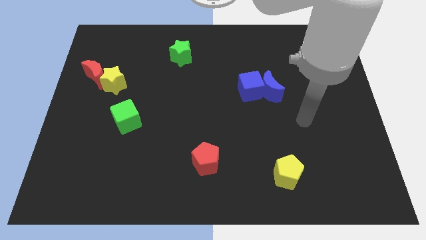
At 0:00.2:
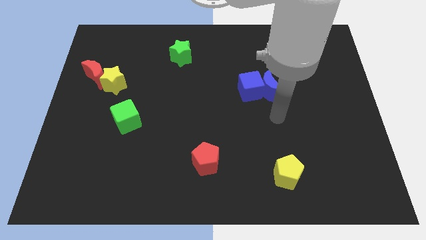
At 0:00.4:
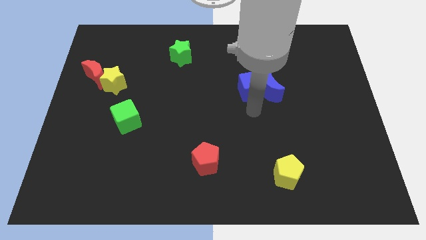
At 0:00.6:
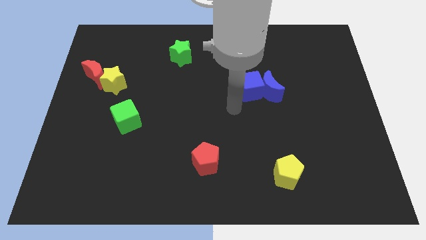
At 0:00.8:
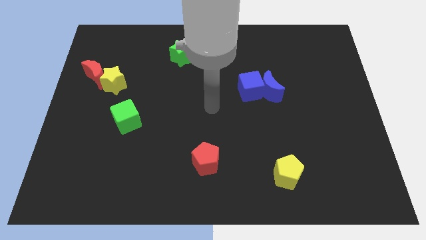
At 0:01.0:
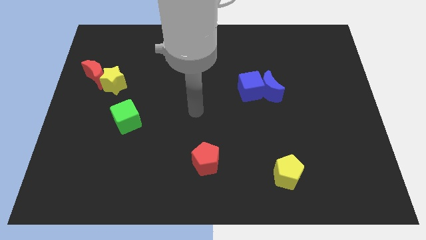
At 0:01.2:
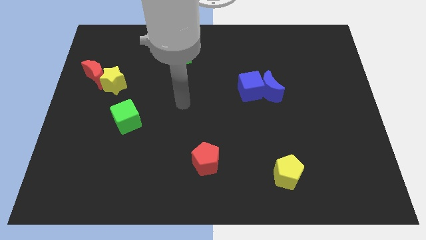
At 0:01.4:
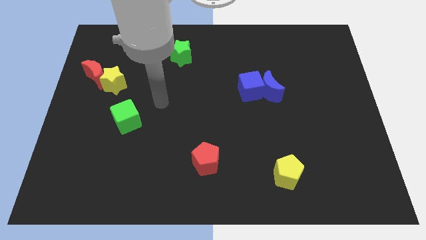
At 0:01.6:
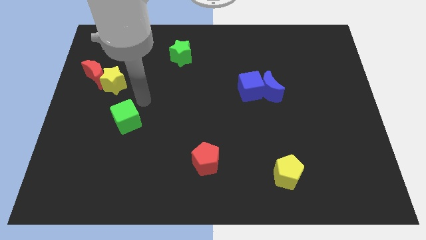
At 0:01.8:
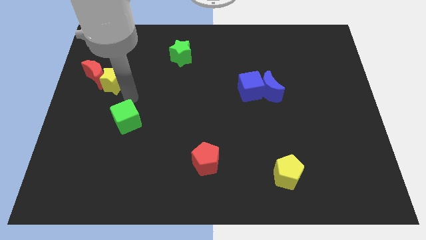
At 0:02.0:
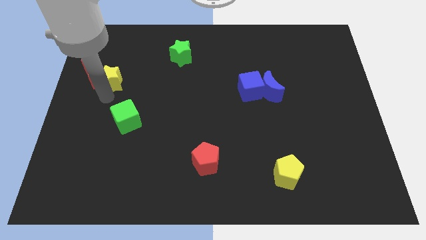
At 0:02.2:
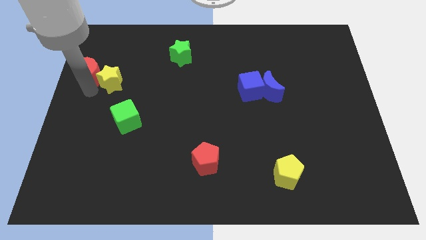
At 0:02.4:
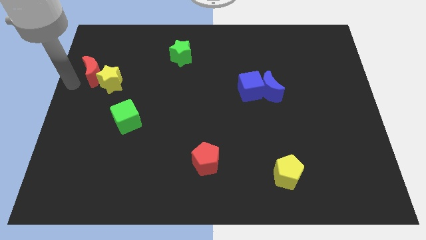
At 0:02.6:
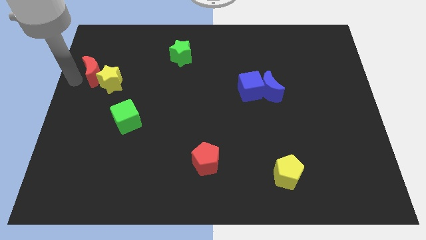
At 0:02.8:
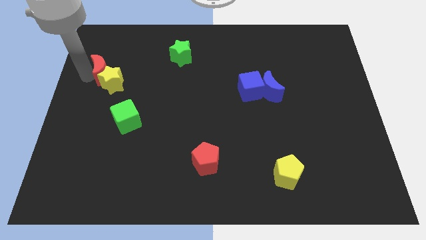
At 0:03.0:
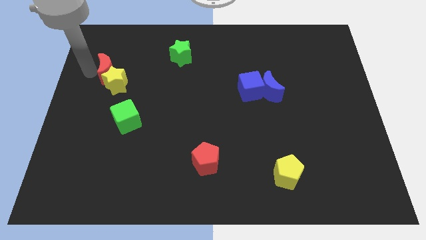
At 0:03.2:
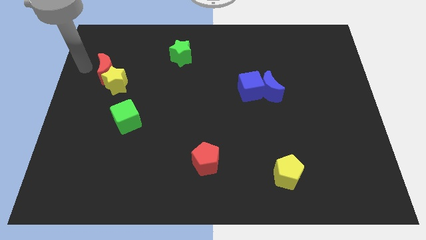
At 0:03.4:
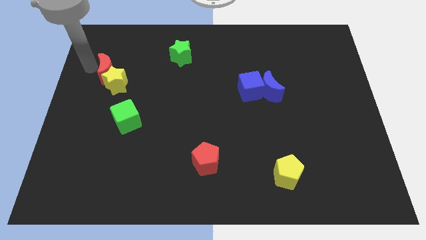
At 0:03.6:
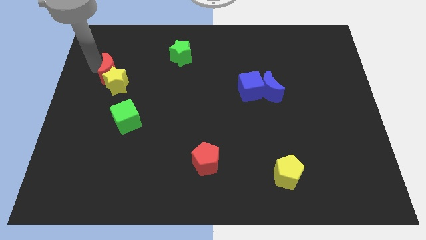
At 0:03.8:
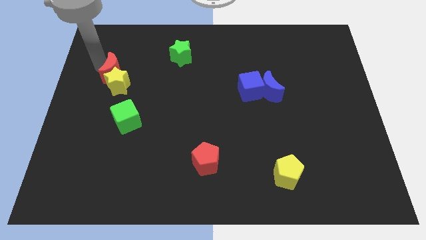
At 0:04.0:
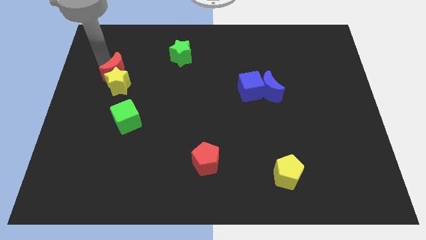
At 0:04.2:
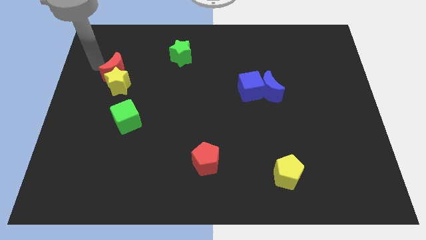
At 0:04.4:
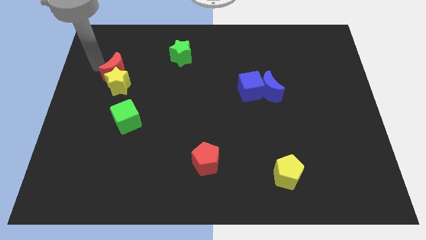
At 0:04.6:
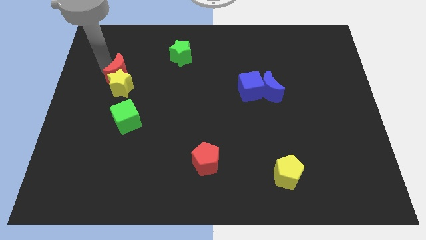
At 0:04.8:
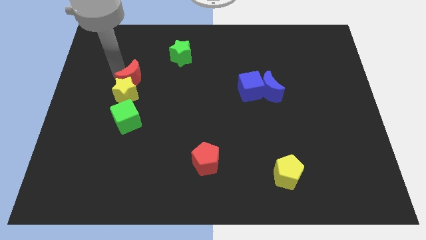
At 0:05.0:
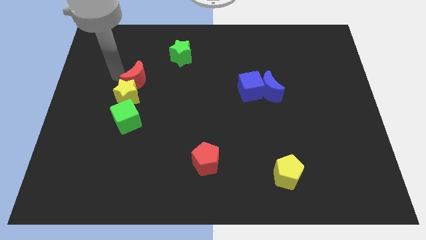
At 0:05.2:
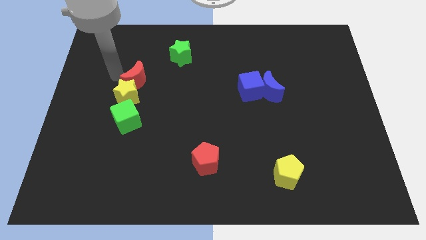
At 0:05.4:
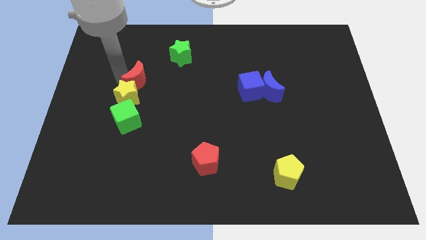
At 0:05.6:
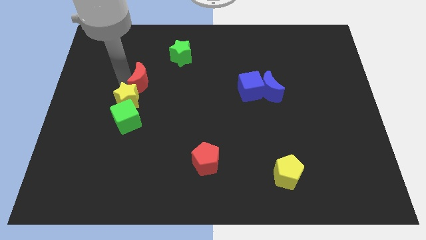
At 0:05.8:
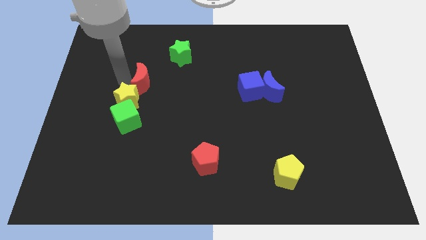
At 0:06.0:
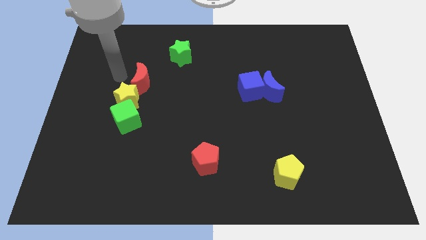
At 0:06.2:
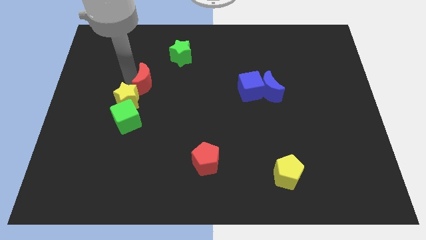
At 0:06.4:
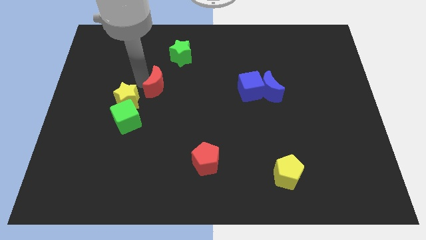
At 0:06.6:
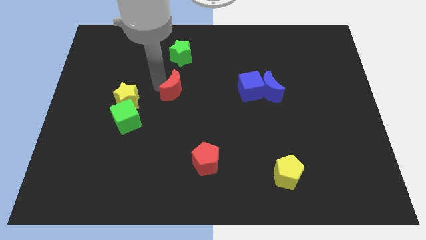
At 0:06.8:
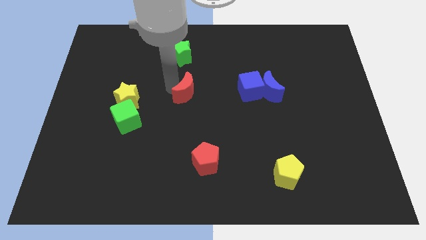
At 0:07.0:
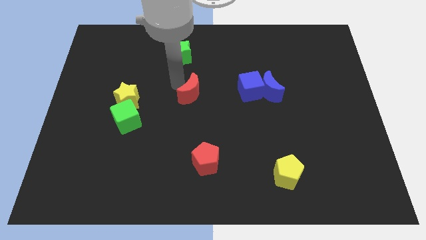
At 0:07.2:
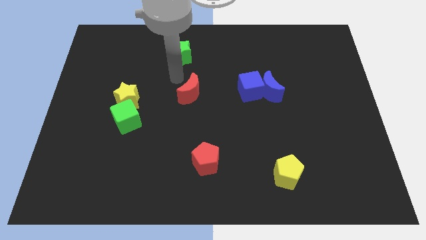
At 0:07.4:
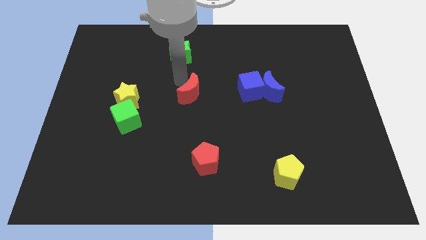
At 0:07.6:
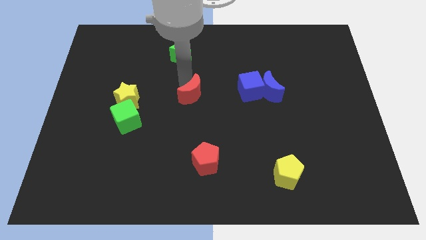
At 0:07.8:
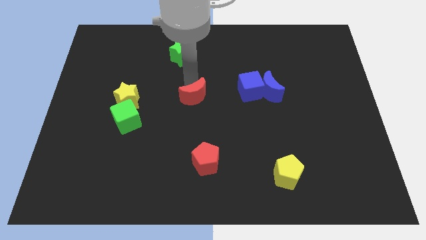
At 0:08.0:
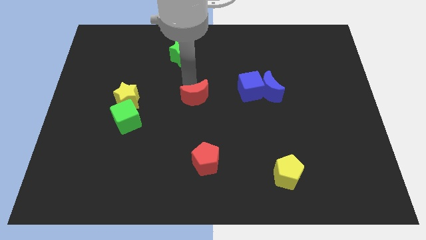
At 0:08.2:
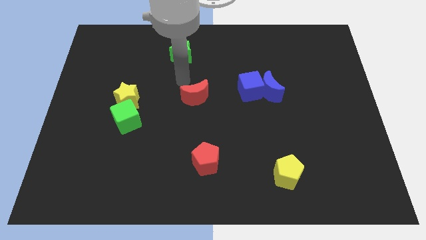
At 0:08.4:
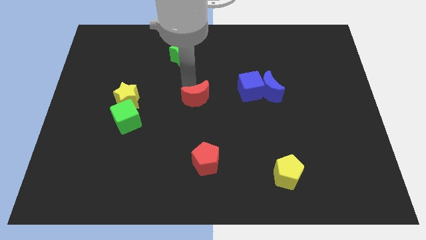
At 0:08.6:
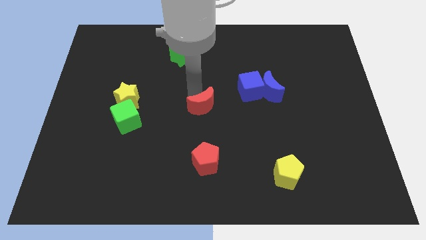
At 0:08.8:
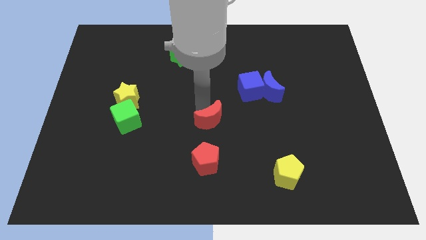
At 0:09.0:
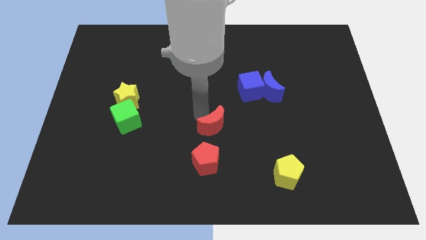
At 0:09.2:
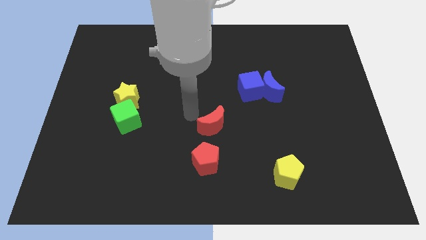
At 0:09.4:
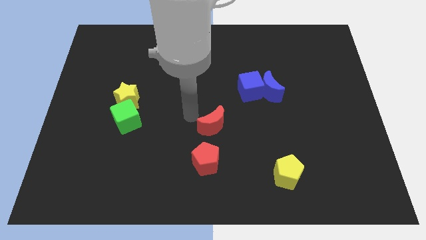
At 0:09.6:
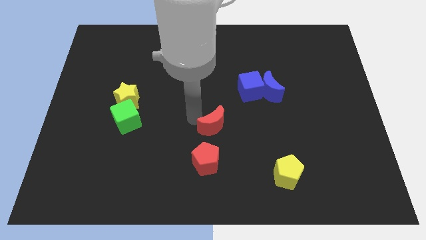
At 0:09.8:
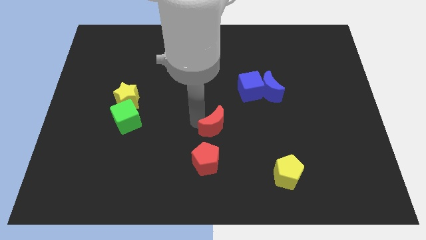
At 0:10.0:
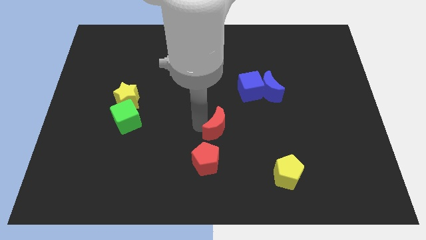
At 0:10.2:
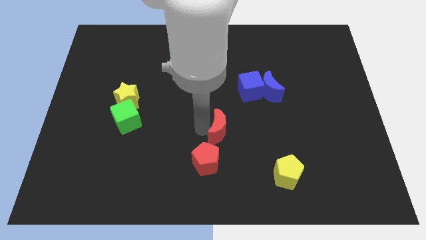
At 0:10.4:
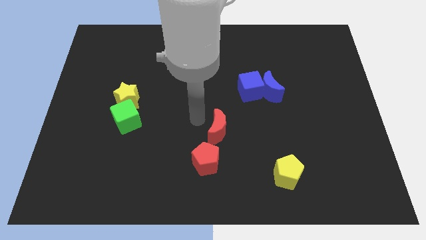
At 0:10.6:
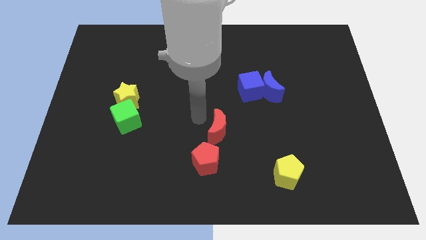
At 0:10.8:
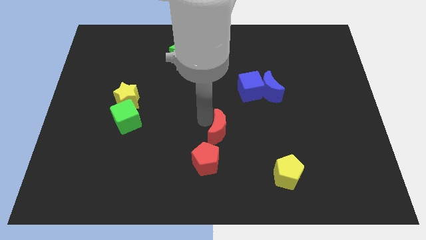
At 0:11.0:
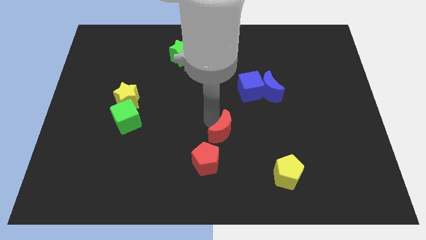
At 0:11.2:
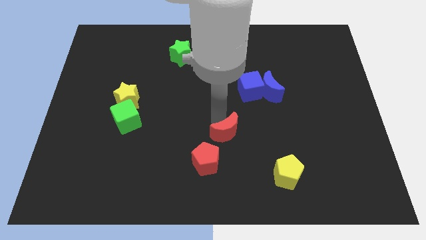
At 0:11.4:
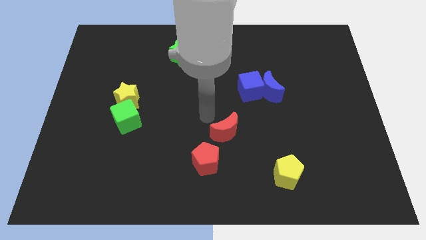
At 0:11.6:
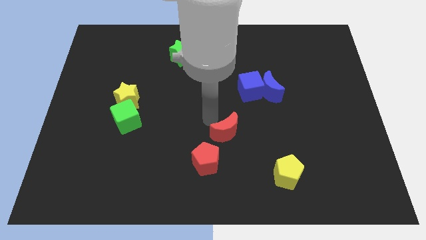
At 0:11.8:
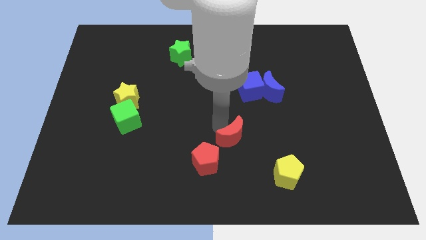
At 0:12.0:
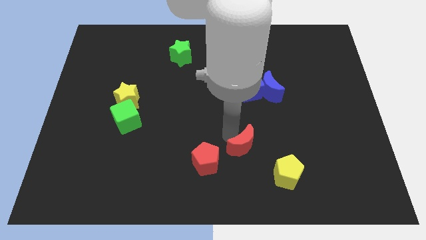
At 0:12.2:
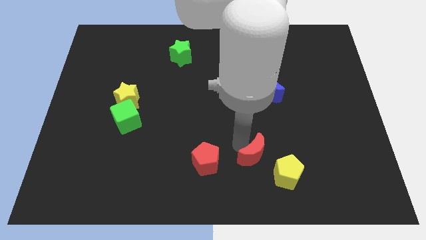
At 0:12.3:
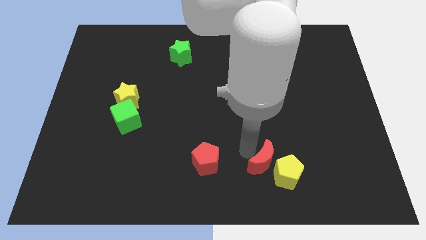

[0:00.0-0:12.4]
put the red moon next to the yellow pentagon

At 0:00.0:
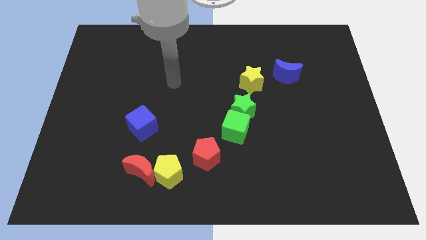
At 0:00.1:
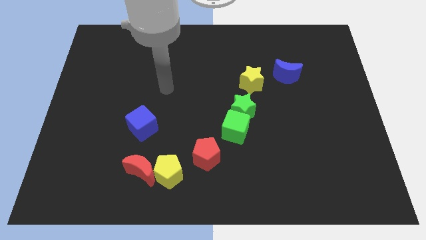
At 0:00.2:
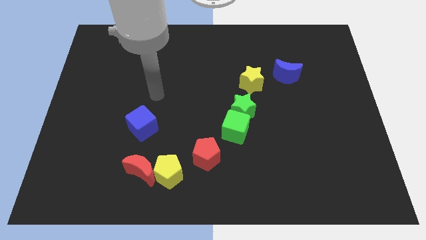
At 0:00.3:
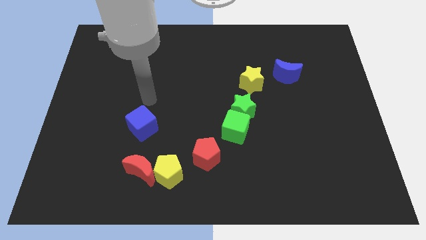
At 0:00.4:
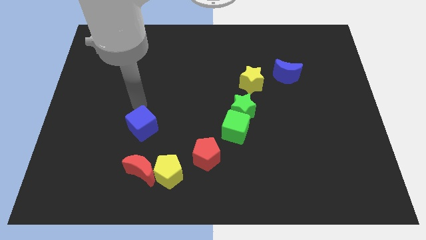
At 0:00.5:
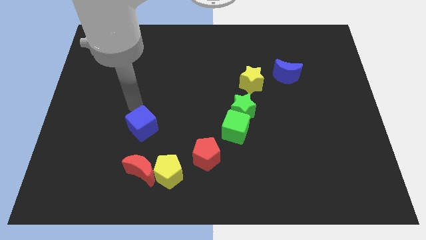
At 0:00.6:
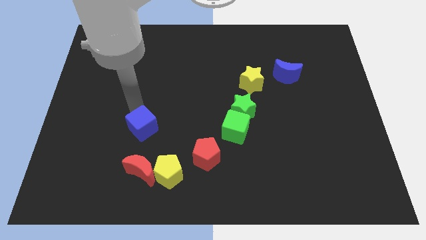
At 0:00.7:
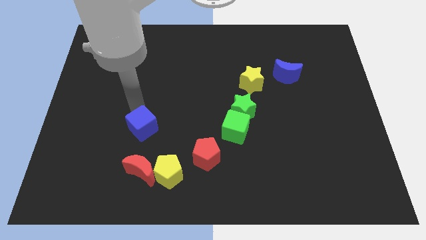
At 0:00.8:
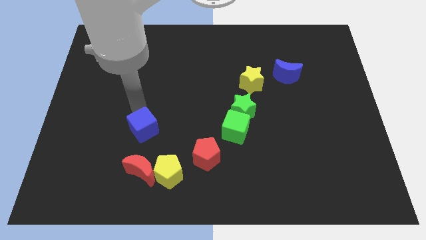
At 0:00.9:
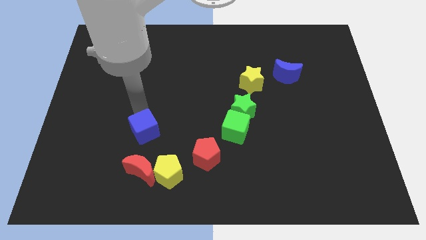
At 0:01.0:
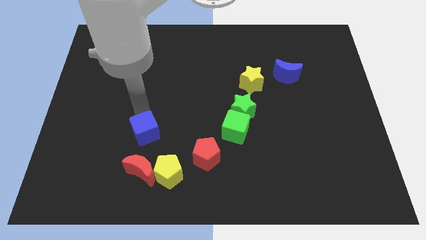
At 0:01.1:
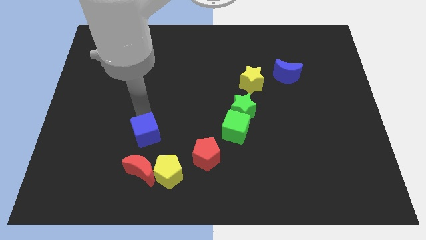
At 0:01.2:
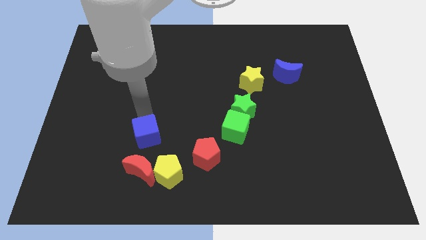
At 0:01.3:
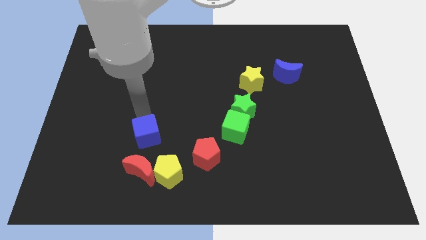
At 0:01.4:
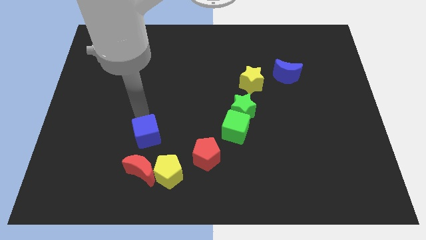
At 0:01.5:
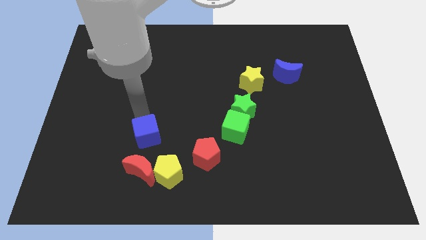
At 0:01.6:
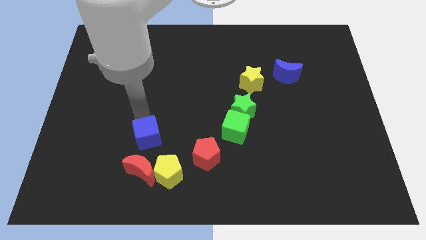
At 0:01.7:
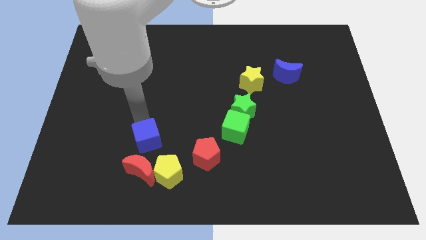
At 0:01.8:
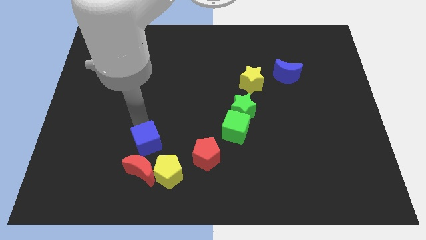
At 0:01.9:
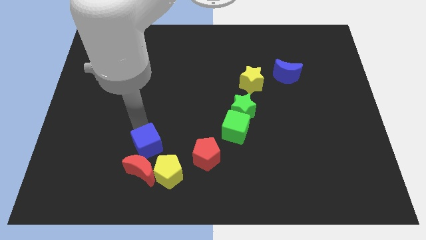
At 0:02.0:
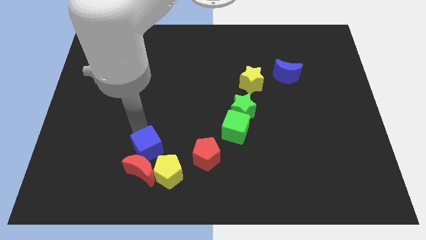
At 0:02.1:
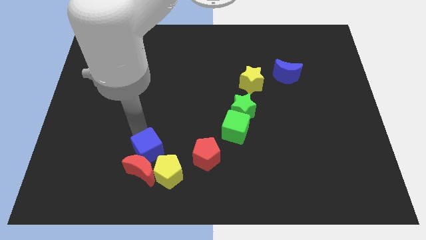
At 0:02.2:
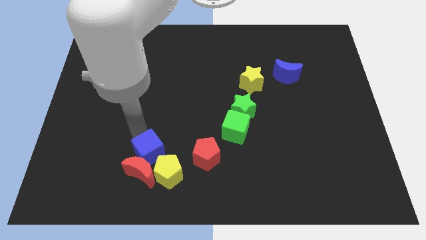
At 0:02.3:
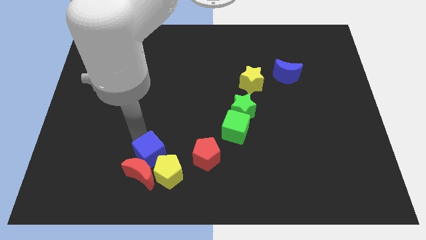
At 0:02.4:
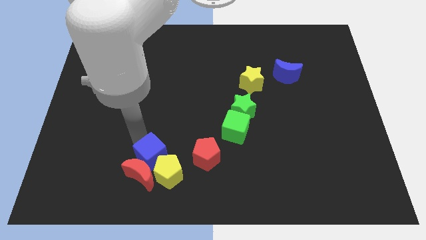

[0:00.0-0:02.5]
slide the blue cube to the yellow pentagon
